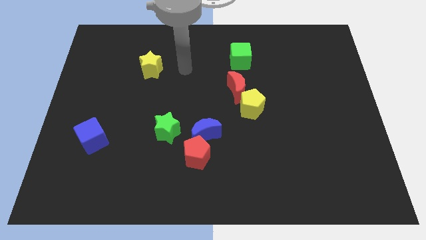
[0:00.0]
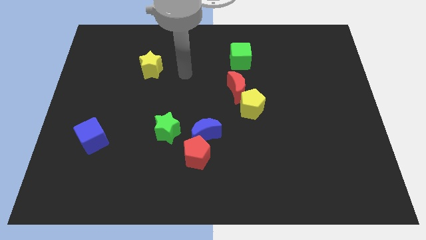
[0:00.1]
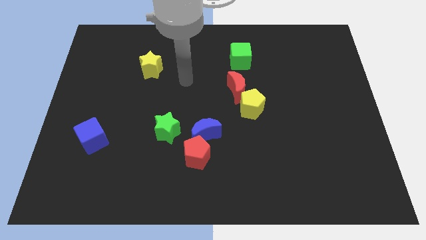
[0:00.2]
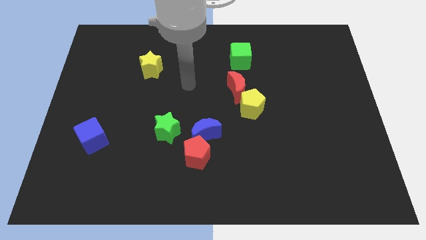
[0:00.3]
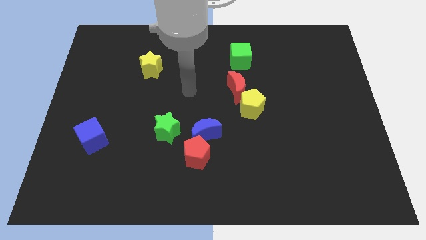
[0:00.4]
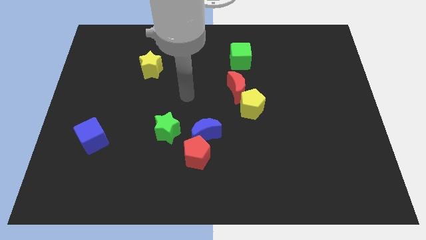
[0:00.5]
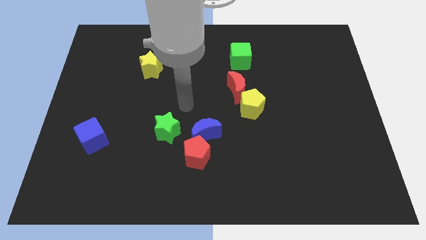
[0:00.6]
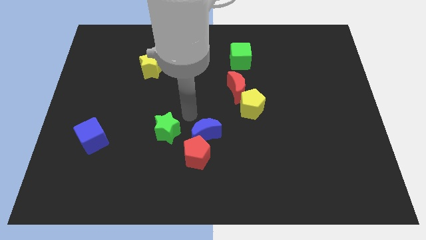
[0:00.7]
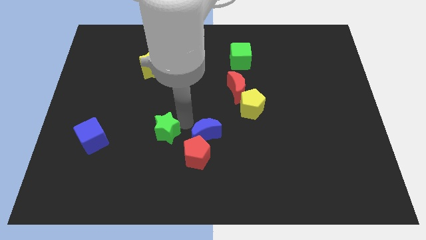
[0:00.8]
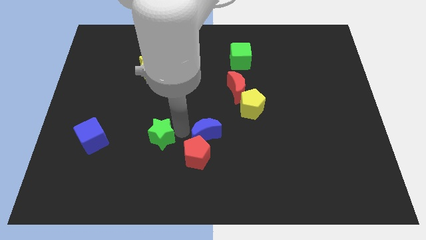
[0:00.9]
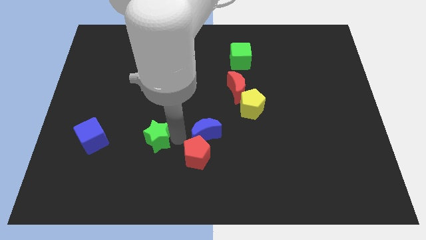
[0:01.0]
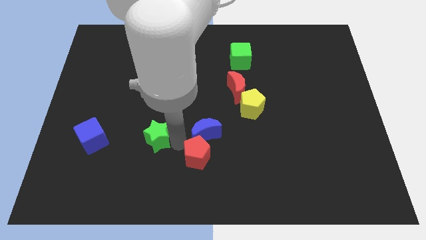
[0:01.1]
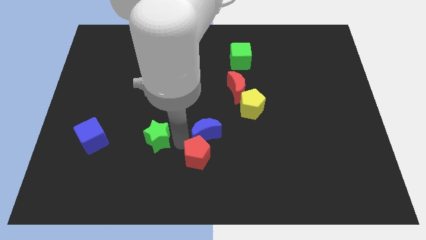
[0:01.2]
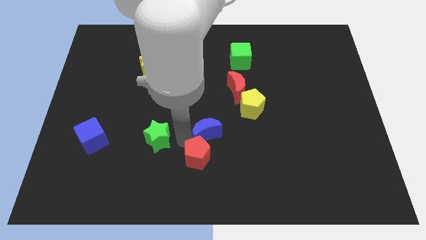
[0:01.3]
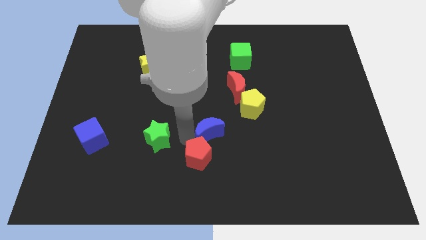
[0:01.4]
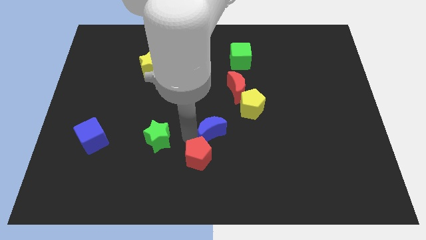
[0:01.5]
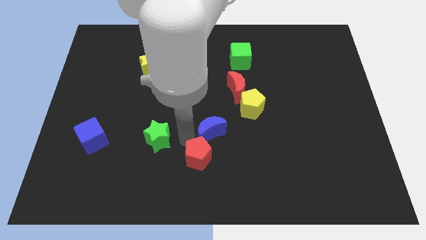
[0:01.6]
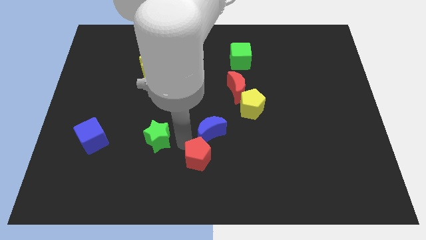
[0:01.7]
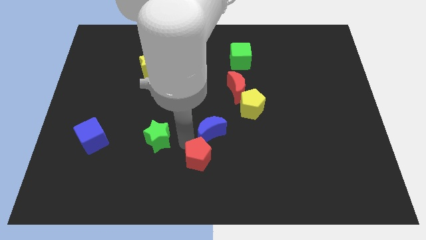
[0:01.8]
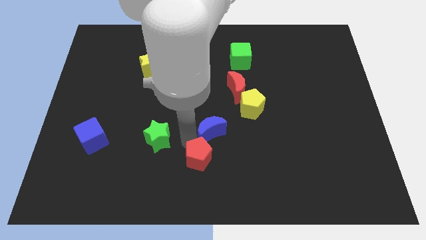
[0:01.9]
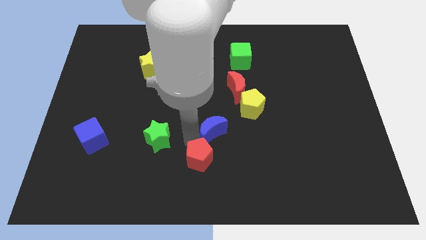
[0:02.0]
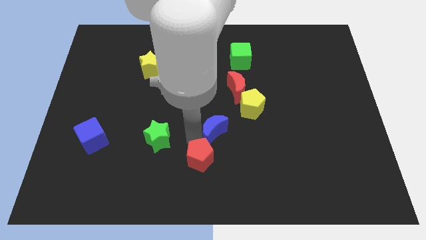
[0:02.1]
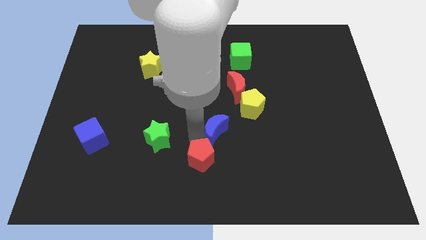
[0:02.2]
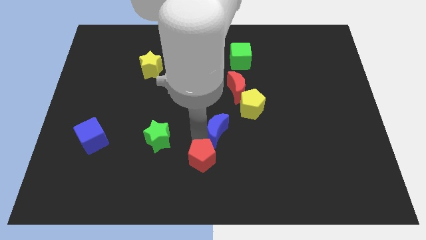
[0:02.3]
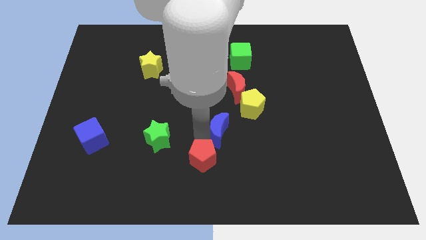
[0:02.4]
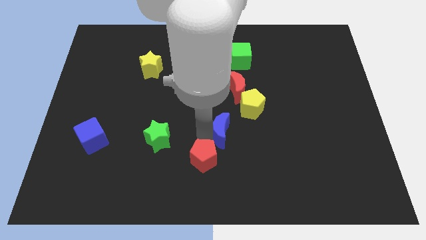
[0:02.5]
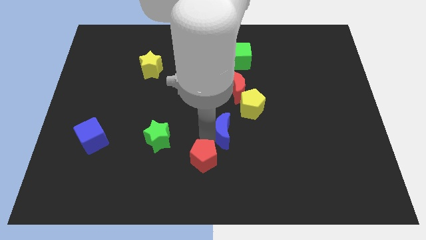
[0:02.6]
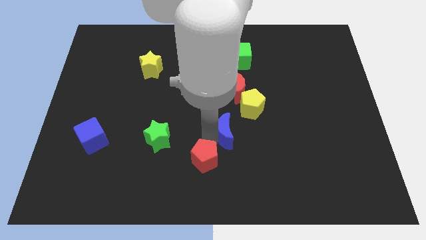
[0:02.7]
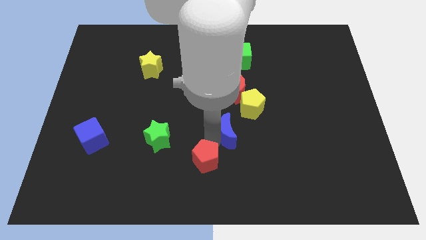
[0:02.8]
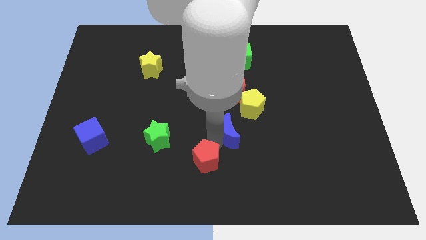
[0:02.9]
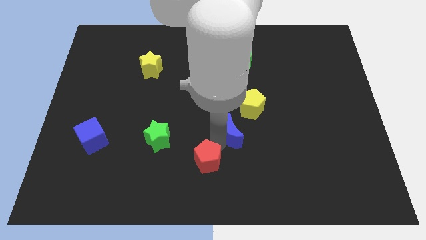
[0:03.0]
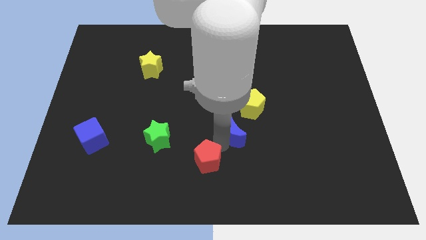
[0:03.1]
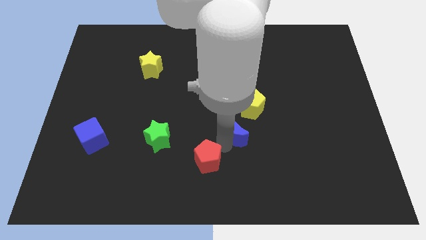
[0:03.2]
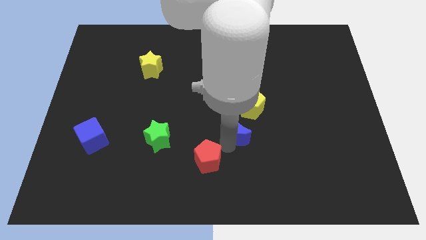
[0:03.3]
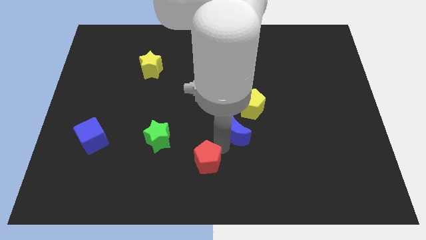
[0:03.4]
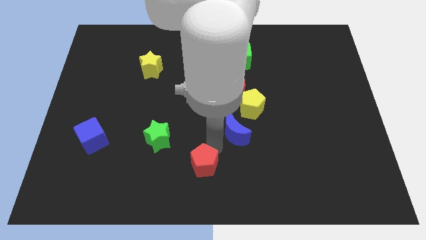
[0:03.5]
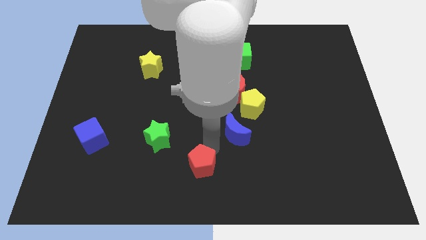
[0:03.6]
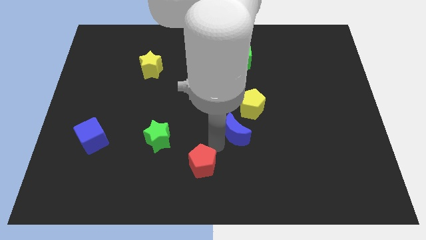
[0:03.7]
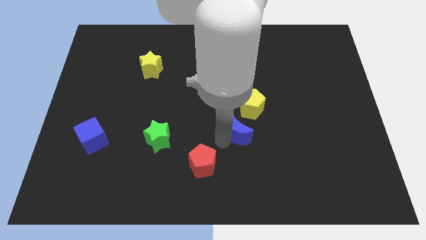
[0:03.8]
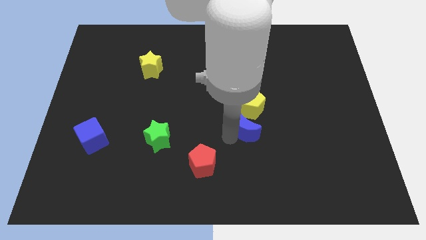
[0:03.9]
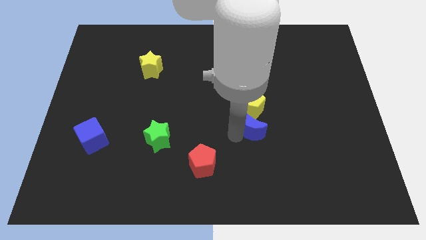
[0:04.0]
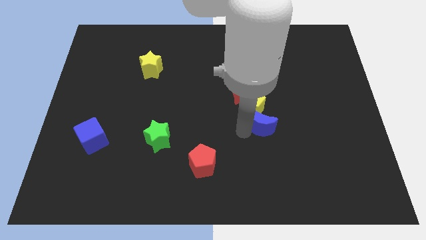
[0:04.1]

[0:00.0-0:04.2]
slide the blue moon up and then right slightly

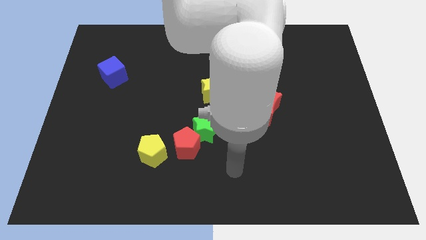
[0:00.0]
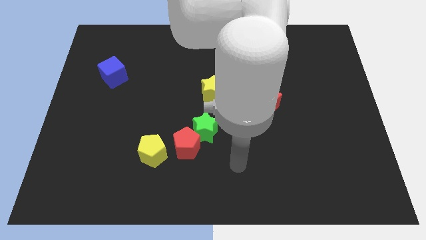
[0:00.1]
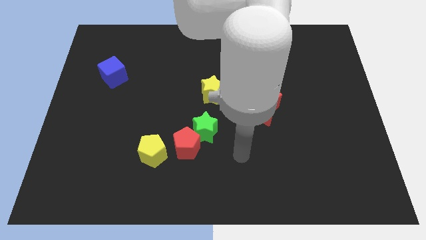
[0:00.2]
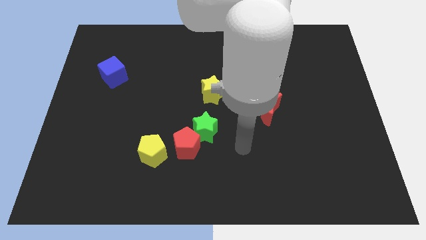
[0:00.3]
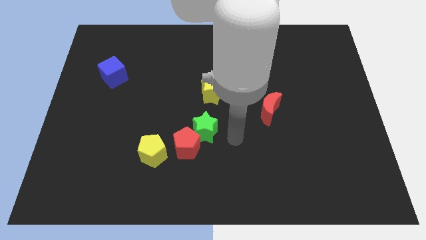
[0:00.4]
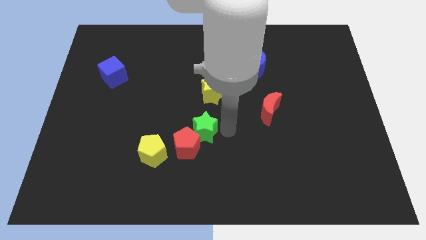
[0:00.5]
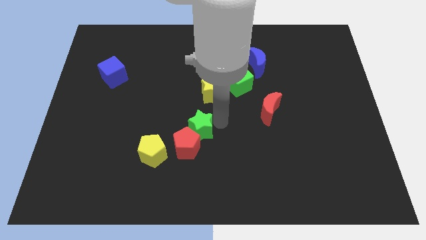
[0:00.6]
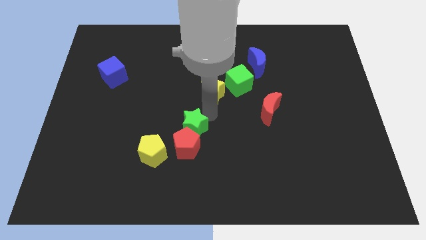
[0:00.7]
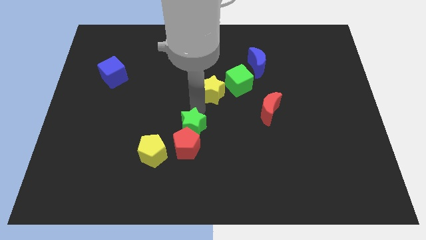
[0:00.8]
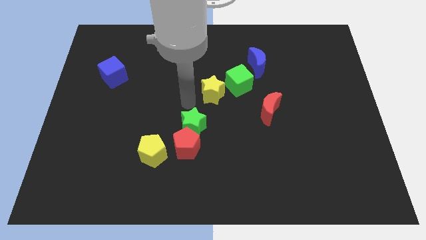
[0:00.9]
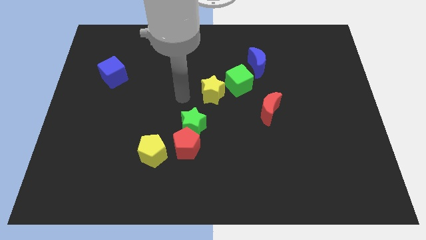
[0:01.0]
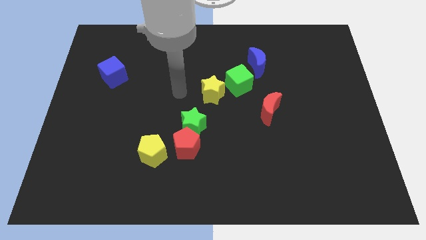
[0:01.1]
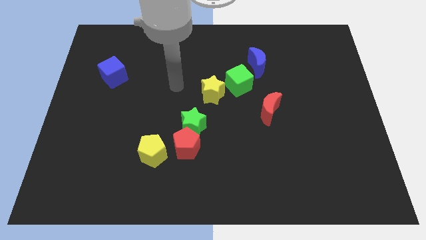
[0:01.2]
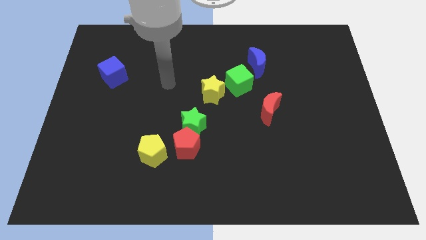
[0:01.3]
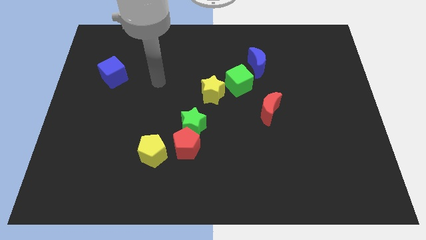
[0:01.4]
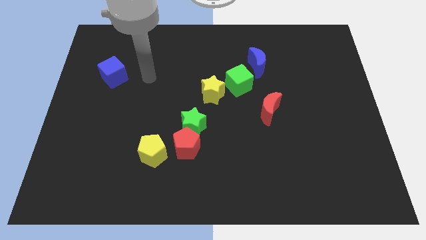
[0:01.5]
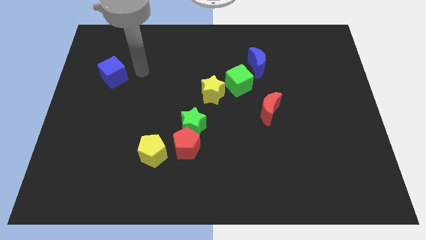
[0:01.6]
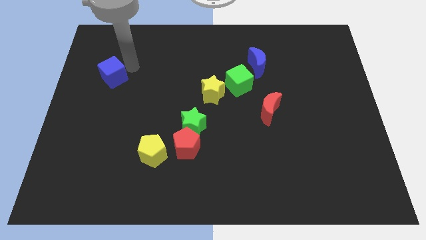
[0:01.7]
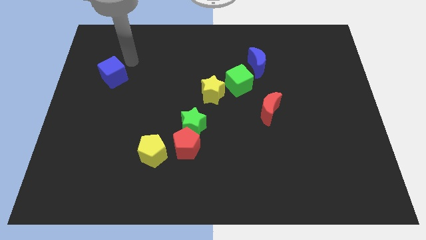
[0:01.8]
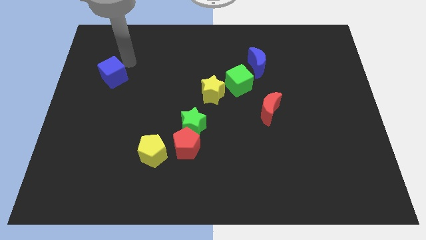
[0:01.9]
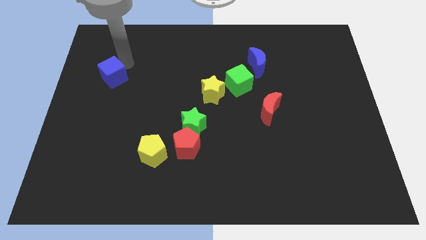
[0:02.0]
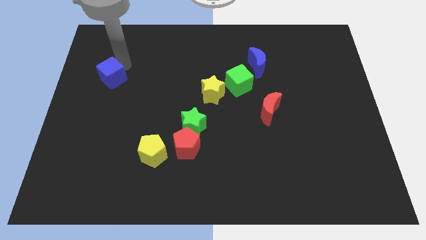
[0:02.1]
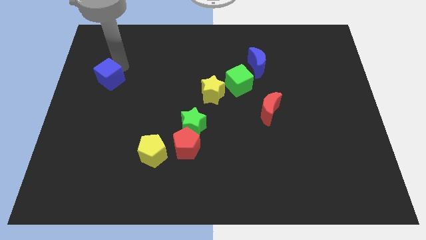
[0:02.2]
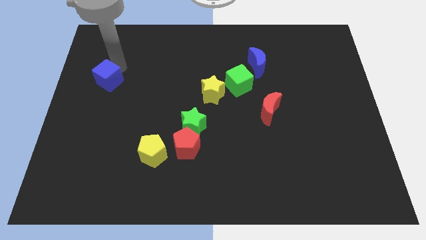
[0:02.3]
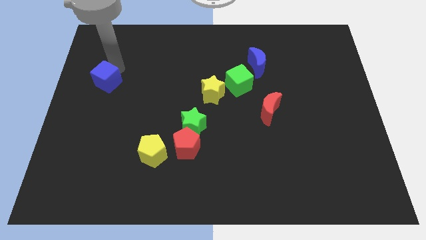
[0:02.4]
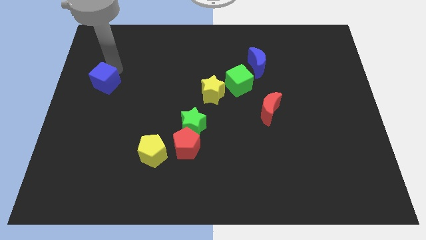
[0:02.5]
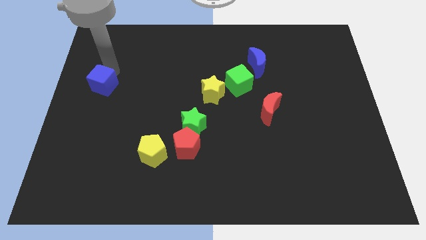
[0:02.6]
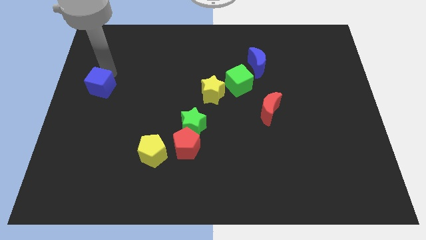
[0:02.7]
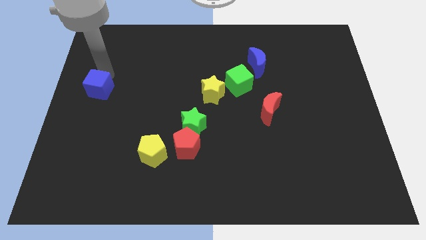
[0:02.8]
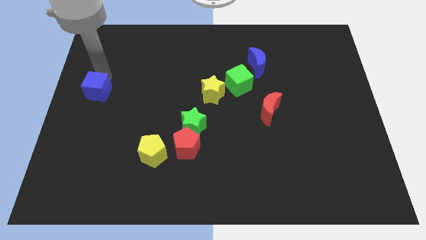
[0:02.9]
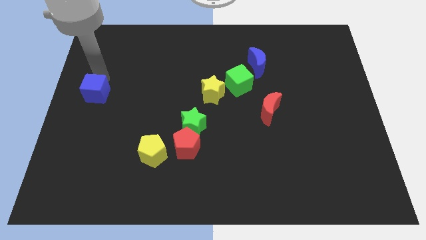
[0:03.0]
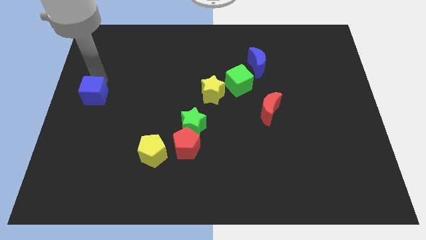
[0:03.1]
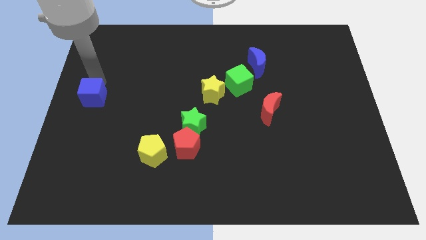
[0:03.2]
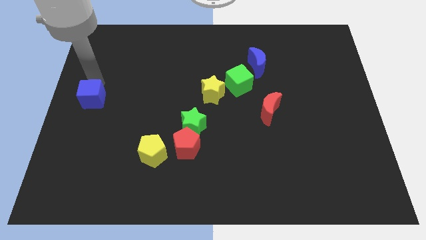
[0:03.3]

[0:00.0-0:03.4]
slide the blue cube somewhat downwards
